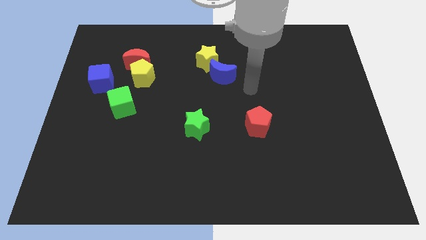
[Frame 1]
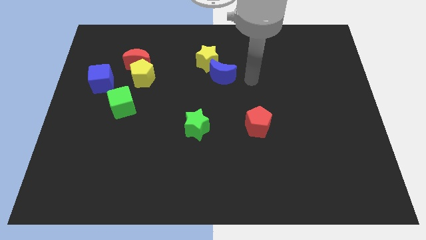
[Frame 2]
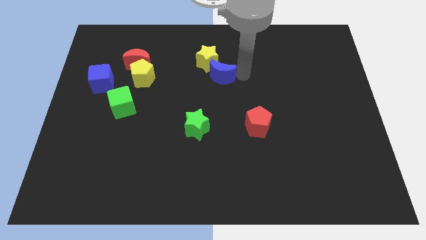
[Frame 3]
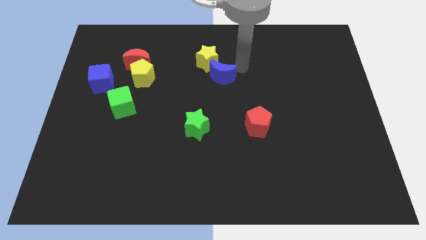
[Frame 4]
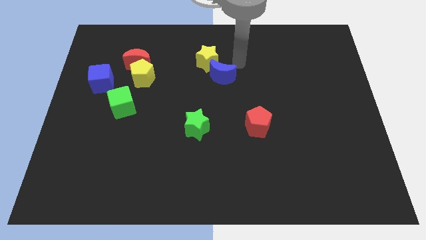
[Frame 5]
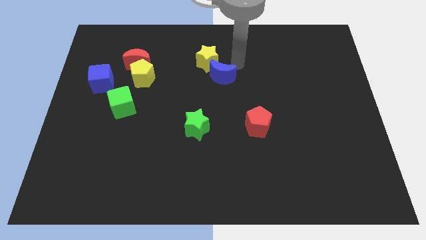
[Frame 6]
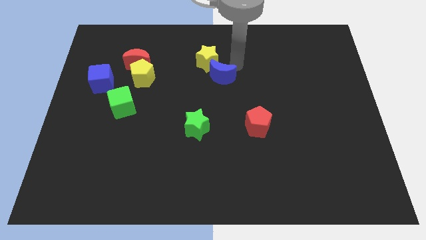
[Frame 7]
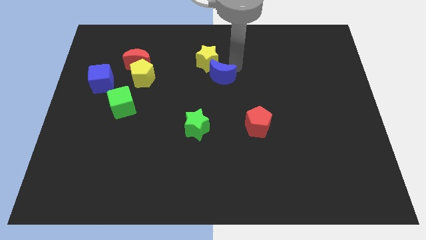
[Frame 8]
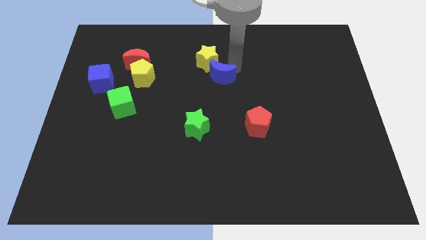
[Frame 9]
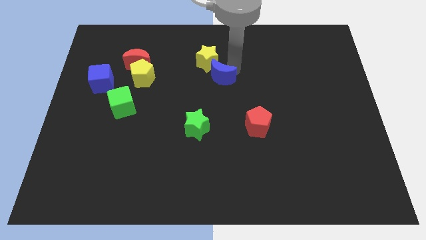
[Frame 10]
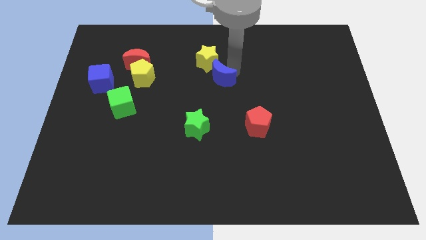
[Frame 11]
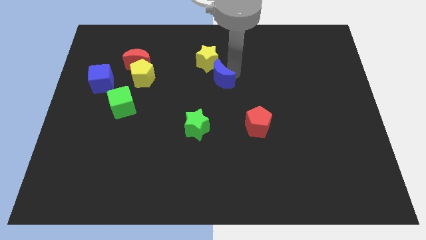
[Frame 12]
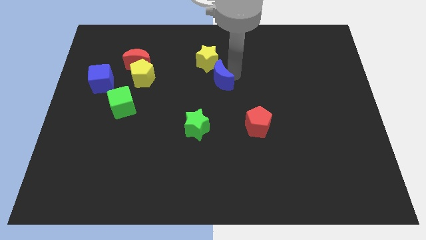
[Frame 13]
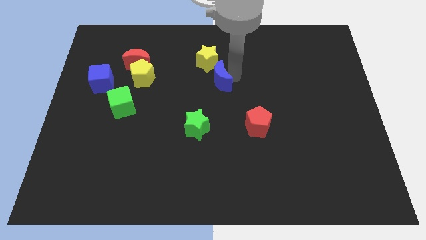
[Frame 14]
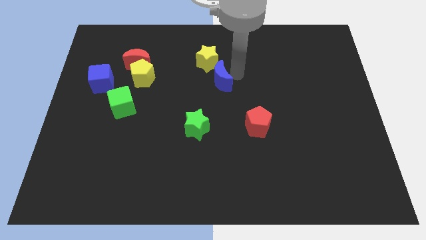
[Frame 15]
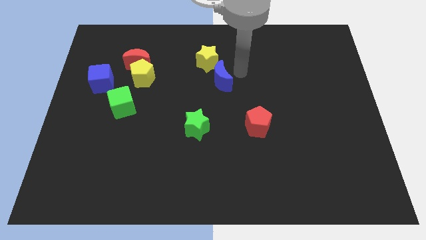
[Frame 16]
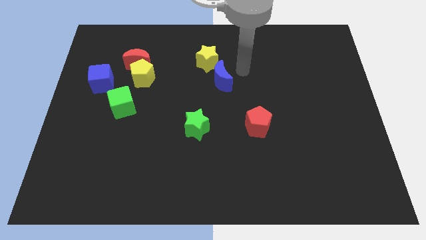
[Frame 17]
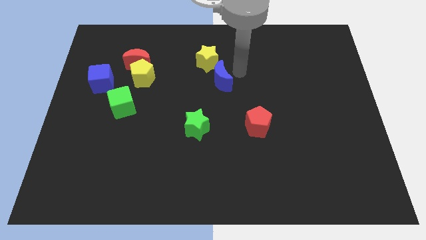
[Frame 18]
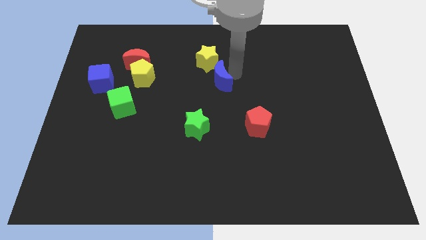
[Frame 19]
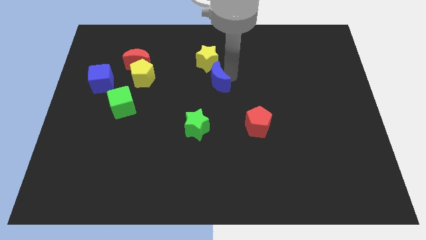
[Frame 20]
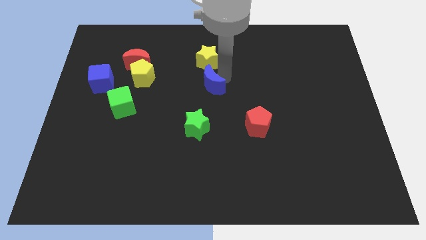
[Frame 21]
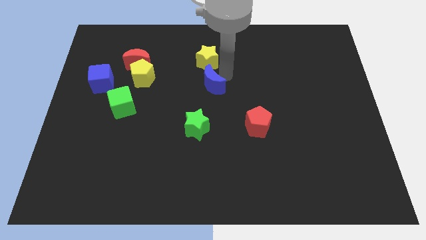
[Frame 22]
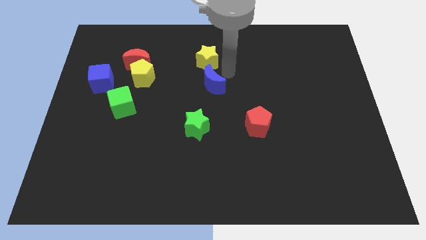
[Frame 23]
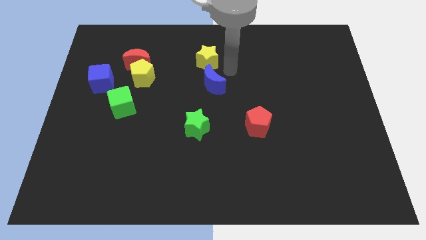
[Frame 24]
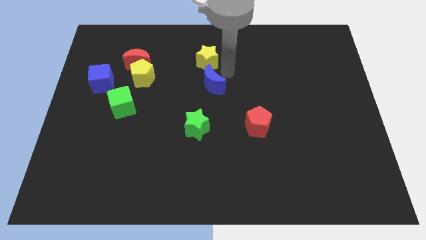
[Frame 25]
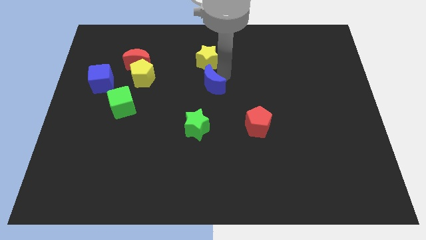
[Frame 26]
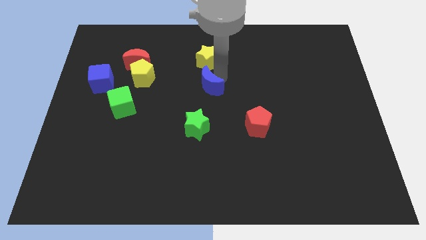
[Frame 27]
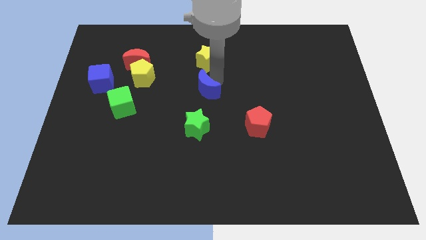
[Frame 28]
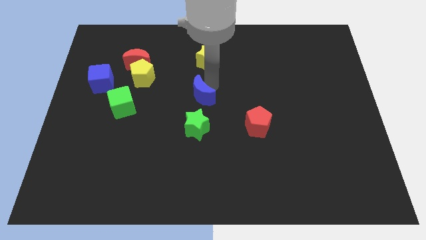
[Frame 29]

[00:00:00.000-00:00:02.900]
slide the blue moon a little bit downwards and then left

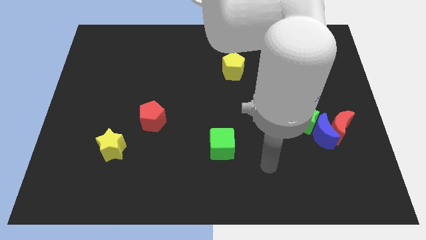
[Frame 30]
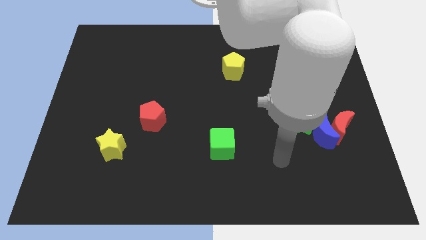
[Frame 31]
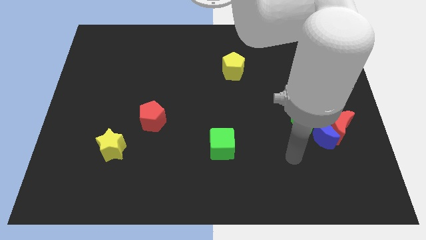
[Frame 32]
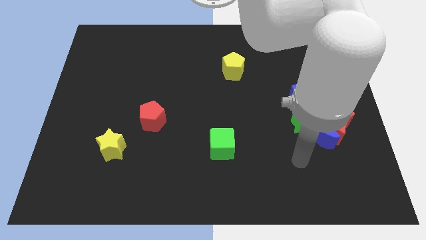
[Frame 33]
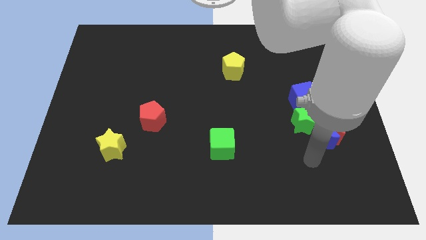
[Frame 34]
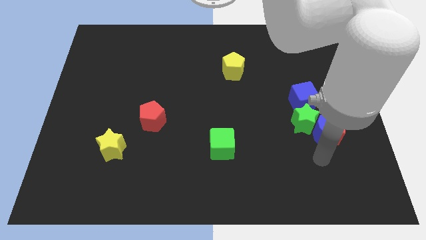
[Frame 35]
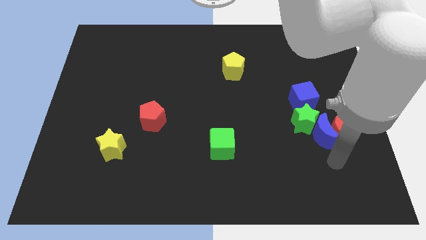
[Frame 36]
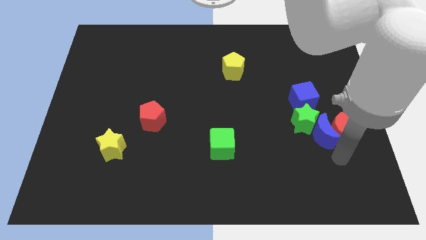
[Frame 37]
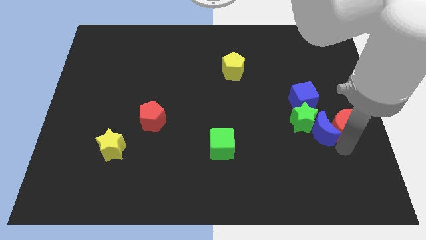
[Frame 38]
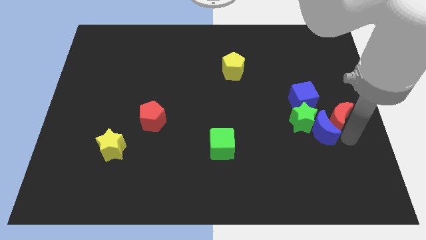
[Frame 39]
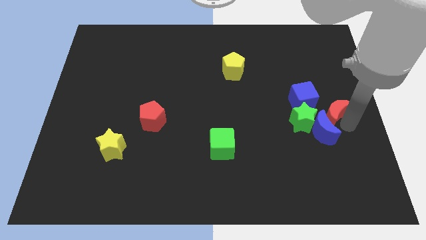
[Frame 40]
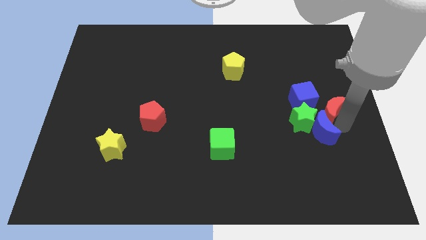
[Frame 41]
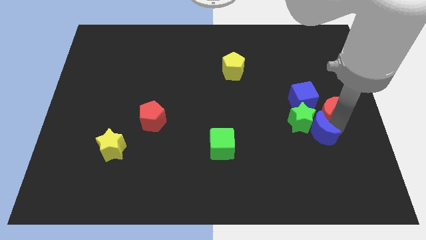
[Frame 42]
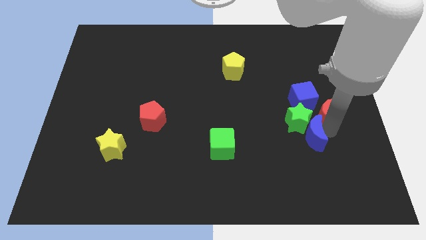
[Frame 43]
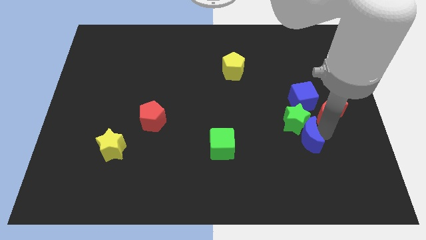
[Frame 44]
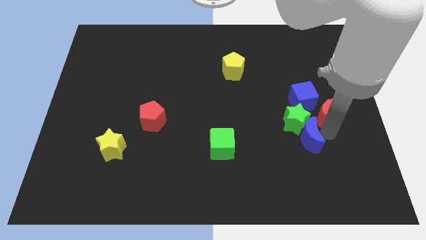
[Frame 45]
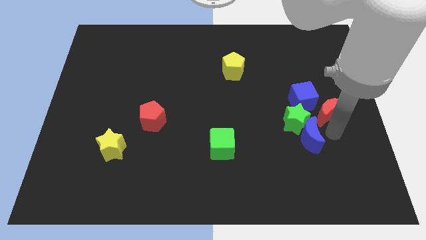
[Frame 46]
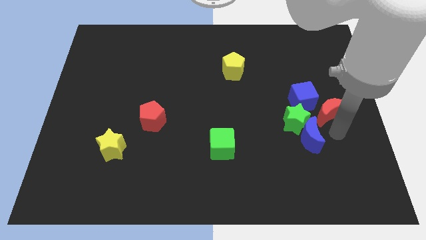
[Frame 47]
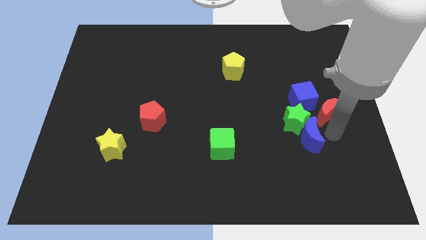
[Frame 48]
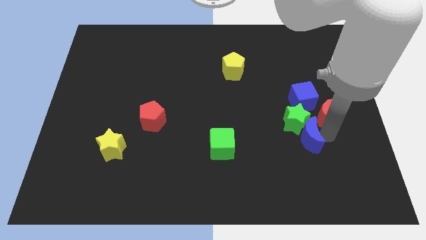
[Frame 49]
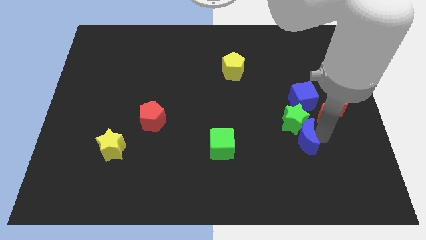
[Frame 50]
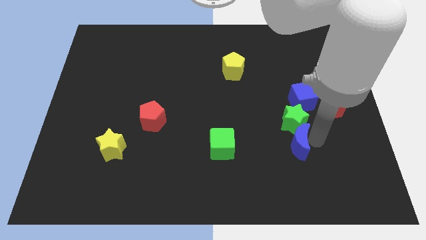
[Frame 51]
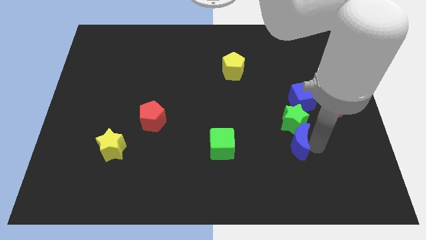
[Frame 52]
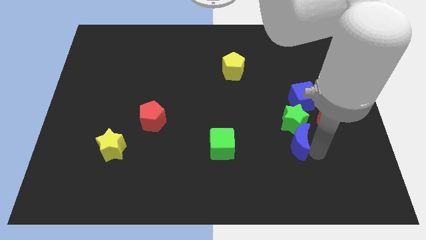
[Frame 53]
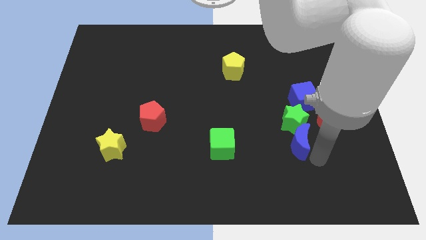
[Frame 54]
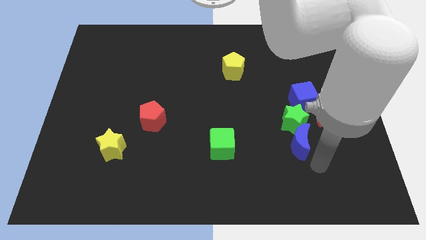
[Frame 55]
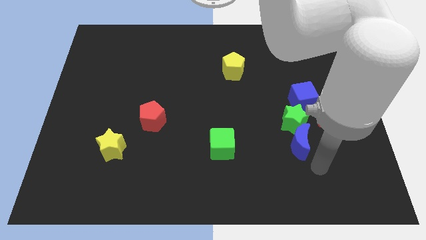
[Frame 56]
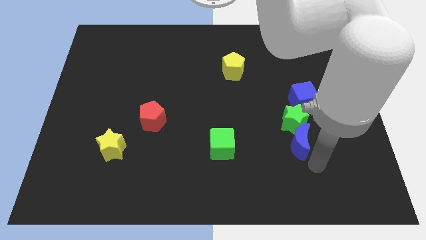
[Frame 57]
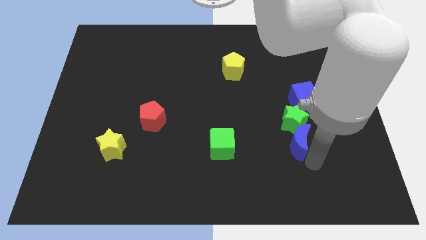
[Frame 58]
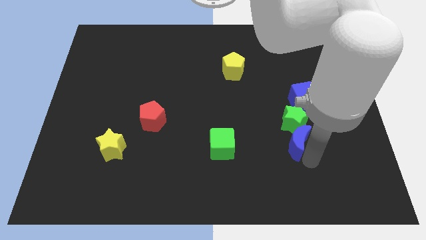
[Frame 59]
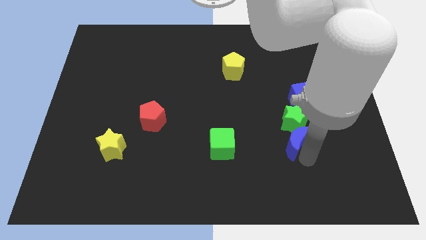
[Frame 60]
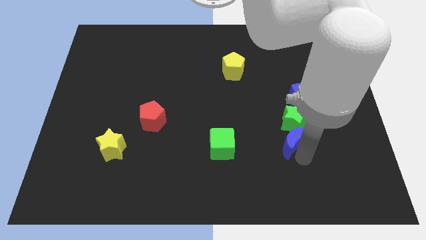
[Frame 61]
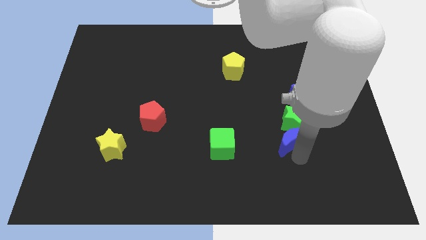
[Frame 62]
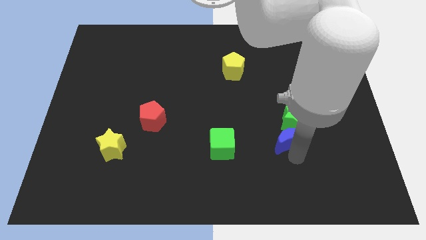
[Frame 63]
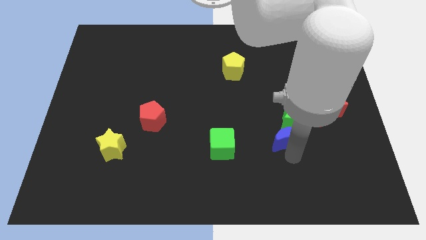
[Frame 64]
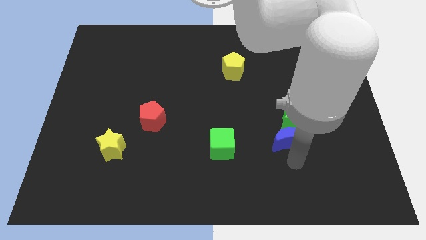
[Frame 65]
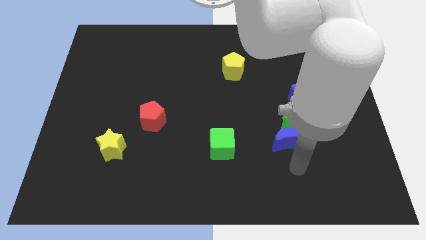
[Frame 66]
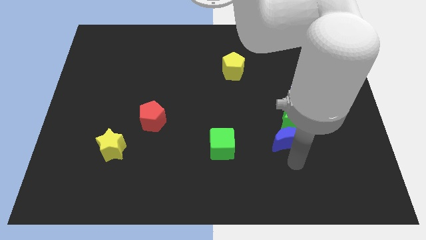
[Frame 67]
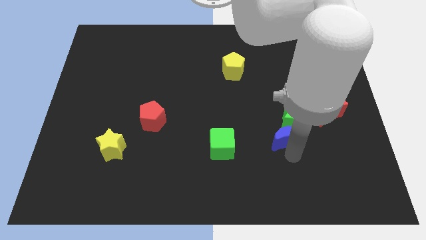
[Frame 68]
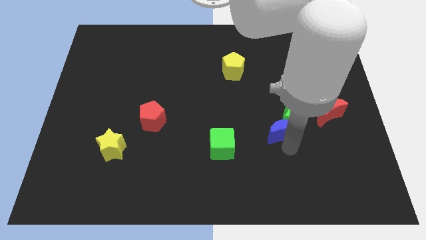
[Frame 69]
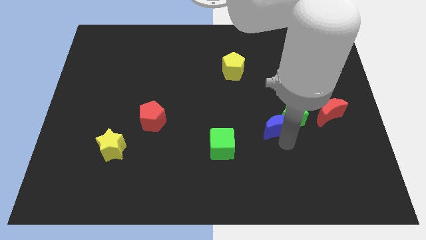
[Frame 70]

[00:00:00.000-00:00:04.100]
slightly slide the blue moon upwards and to the left diagonally

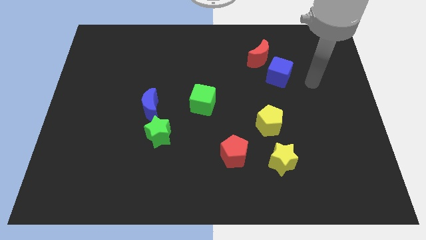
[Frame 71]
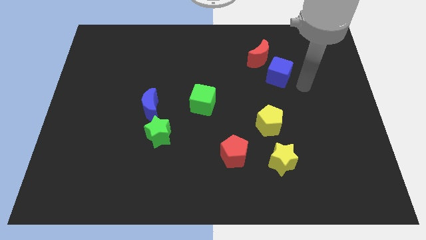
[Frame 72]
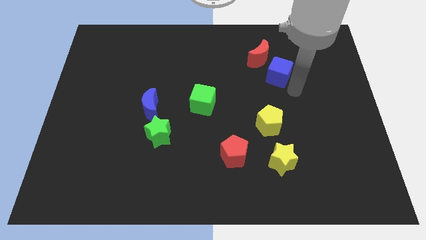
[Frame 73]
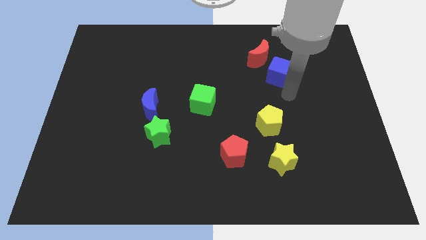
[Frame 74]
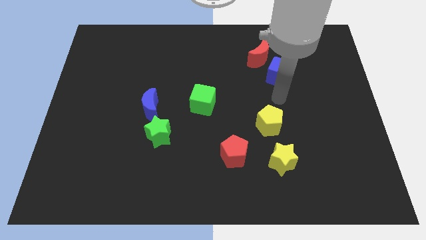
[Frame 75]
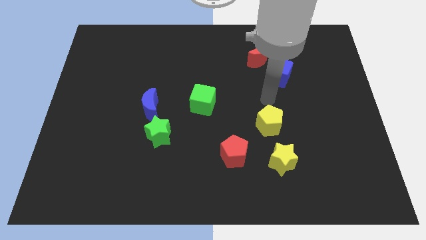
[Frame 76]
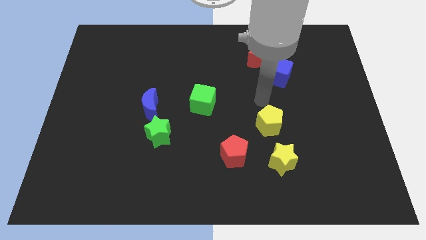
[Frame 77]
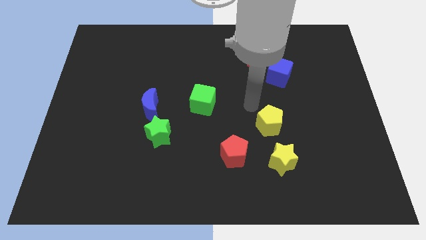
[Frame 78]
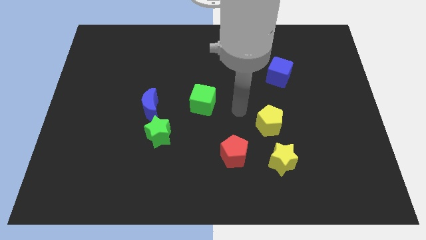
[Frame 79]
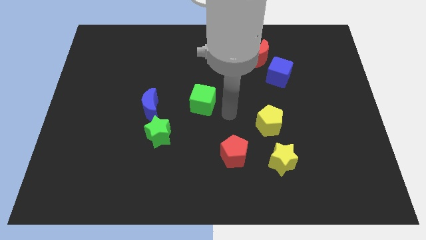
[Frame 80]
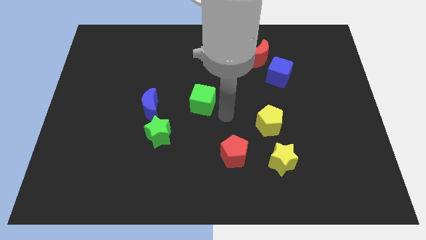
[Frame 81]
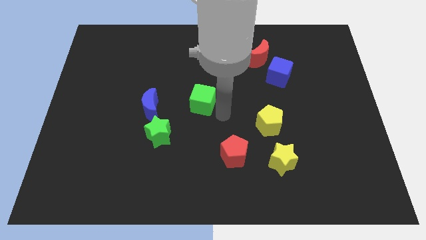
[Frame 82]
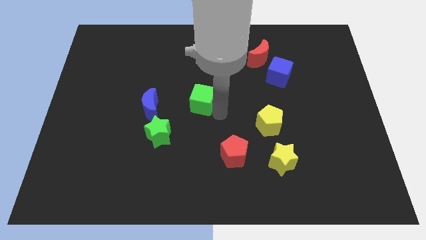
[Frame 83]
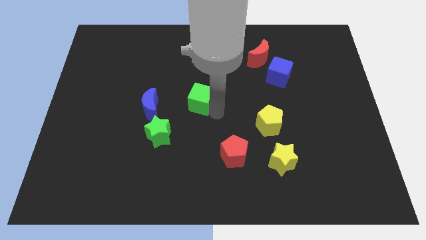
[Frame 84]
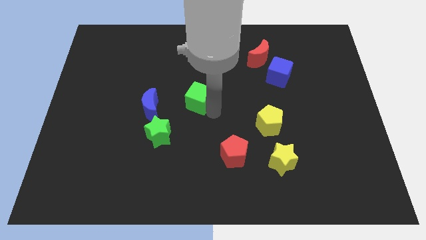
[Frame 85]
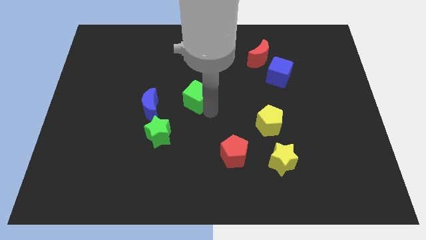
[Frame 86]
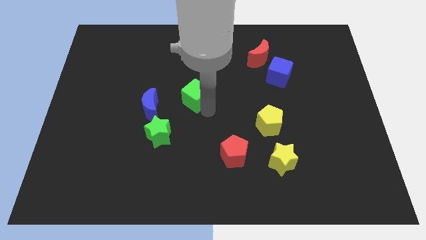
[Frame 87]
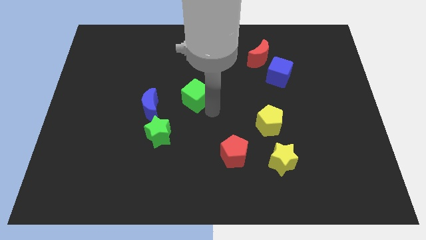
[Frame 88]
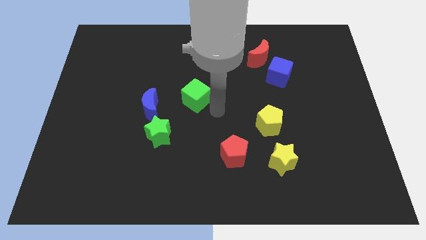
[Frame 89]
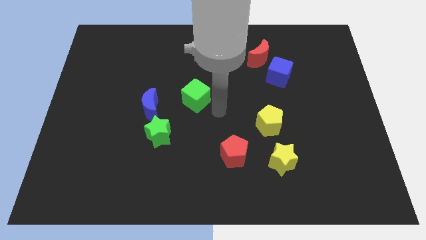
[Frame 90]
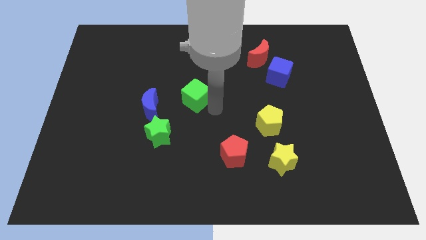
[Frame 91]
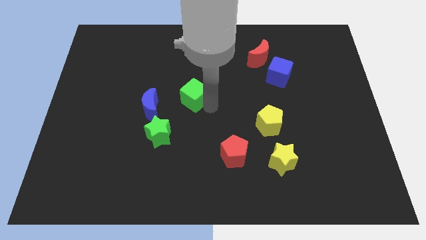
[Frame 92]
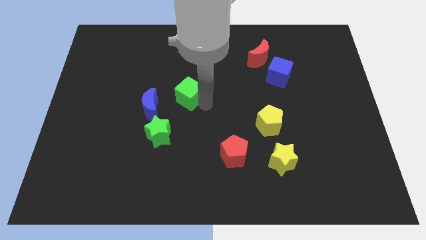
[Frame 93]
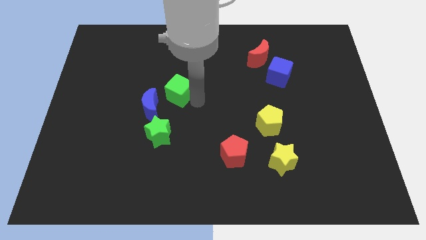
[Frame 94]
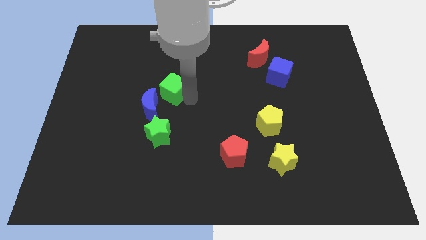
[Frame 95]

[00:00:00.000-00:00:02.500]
push the green cube a little up and then left
